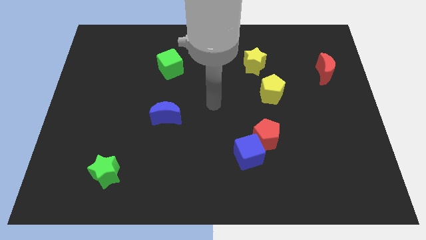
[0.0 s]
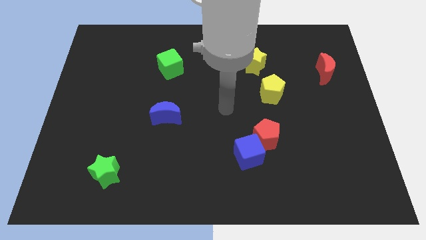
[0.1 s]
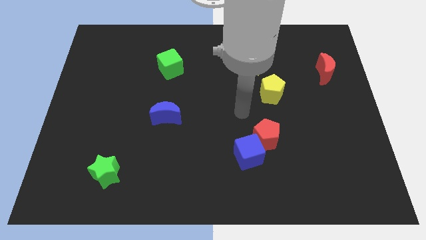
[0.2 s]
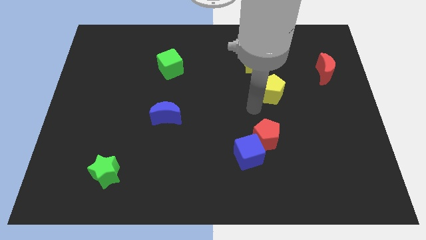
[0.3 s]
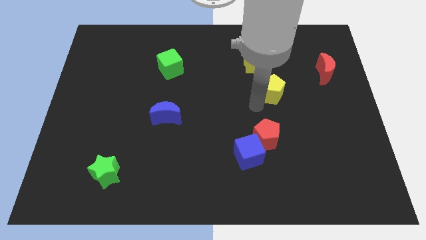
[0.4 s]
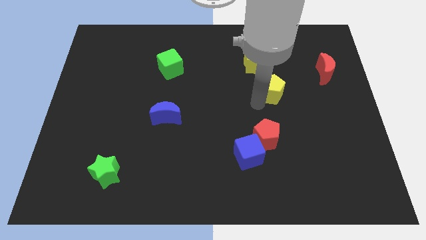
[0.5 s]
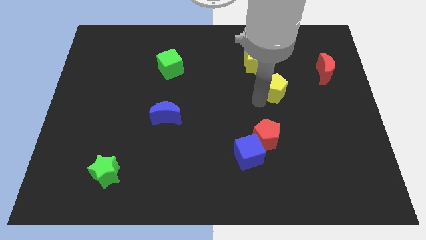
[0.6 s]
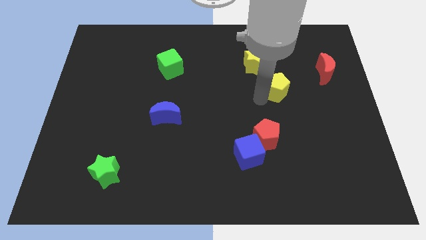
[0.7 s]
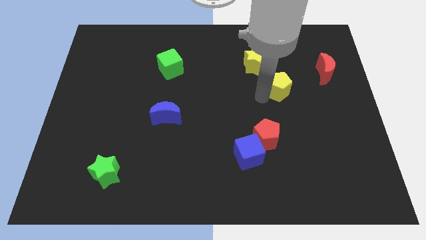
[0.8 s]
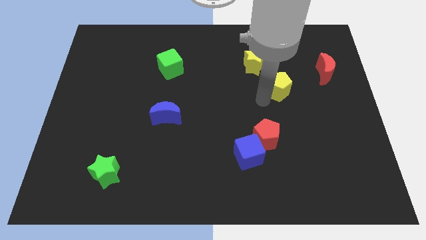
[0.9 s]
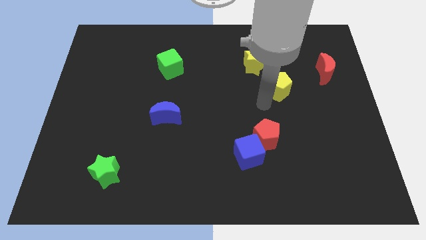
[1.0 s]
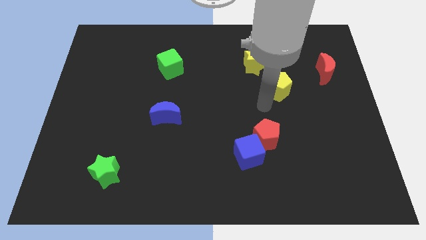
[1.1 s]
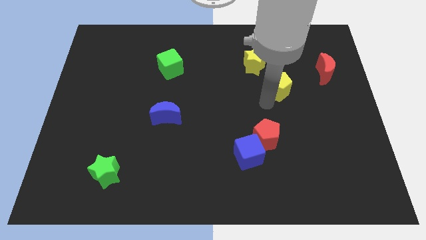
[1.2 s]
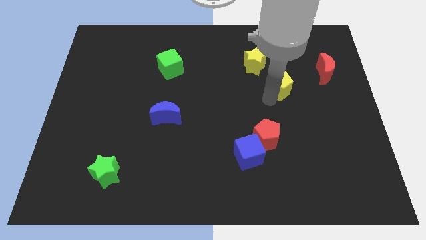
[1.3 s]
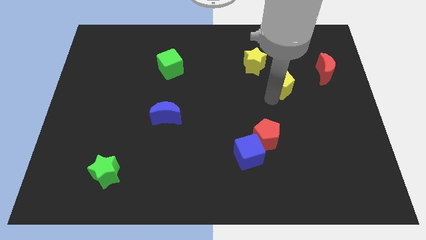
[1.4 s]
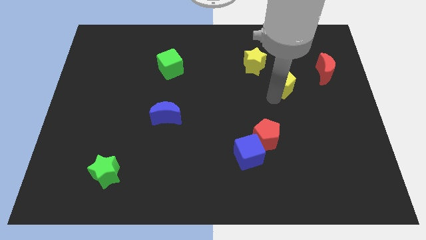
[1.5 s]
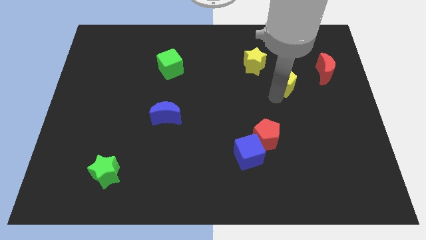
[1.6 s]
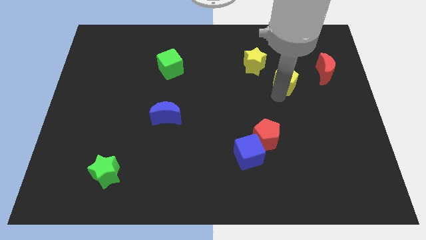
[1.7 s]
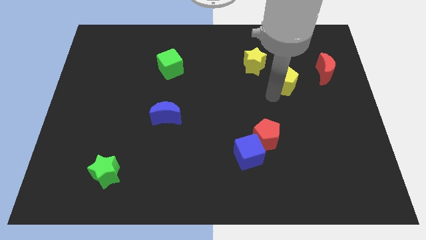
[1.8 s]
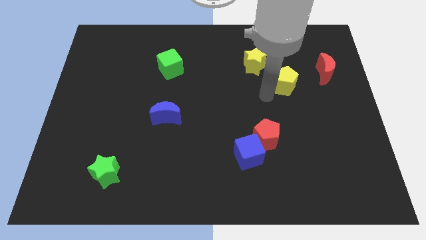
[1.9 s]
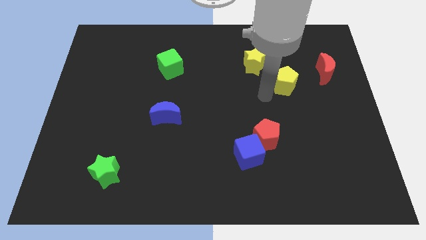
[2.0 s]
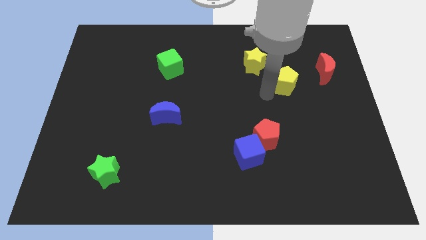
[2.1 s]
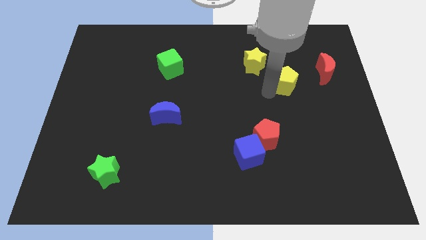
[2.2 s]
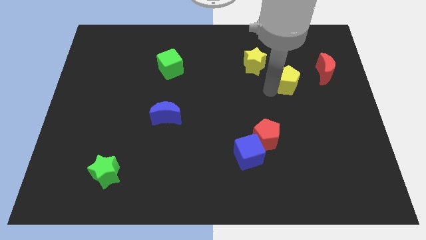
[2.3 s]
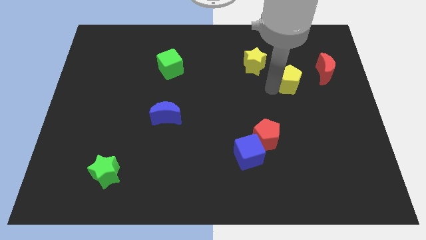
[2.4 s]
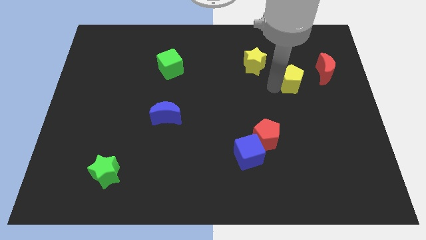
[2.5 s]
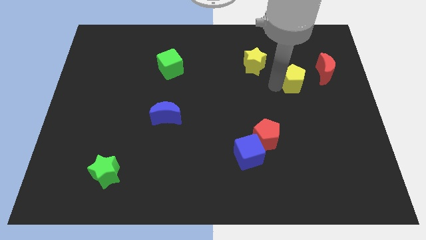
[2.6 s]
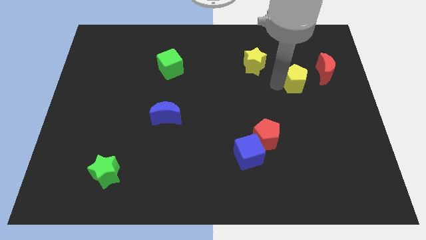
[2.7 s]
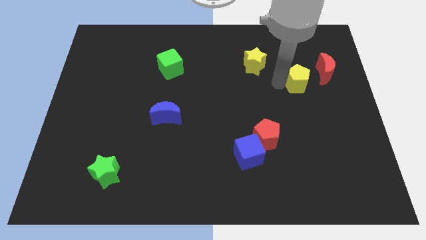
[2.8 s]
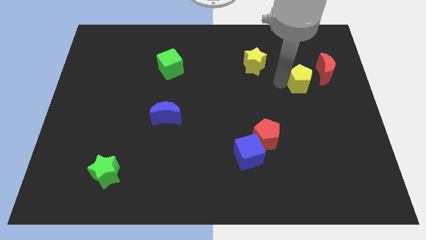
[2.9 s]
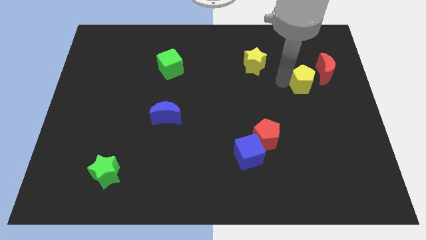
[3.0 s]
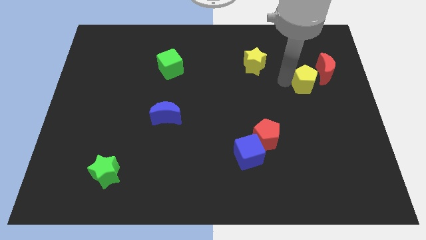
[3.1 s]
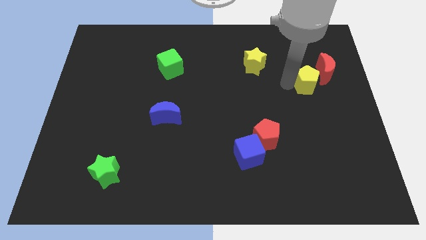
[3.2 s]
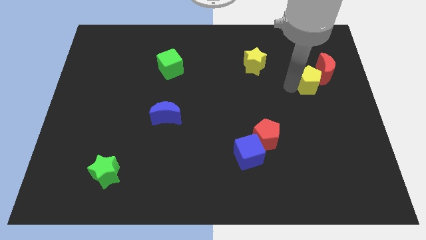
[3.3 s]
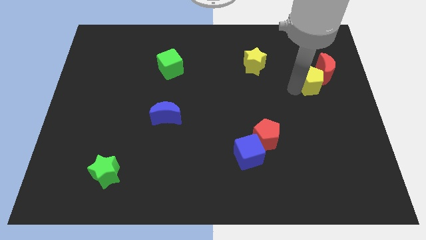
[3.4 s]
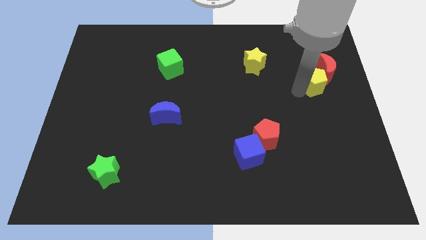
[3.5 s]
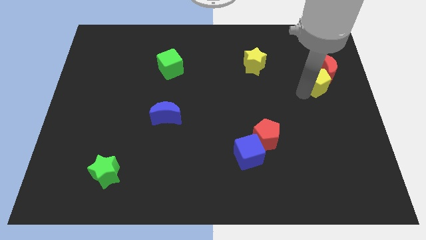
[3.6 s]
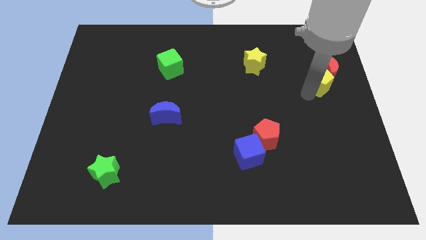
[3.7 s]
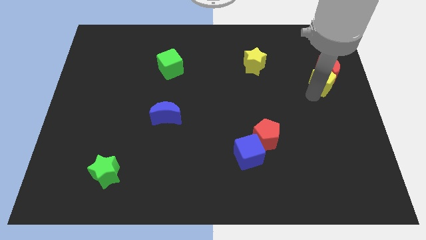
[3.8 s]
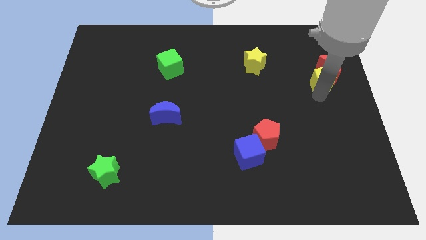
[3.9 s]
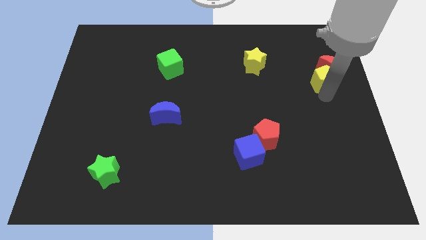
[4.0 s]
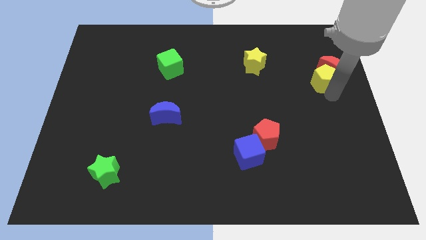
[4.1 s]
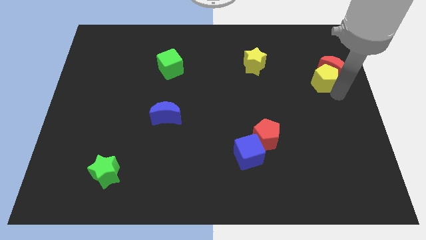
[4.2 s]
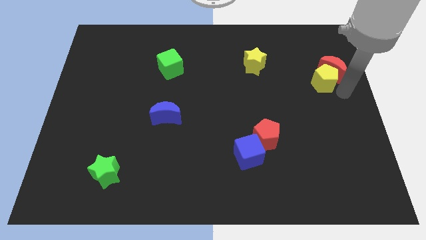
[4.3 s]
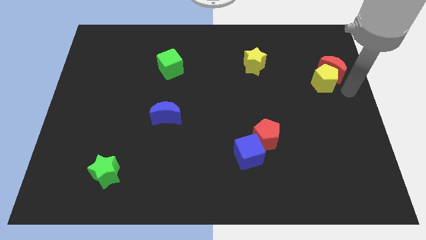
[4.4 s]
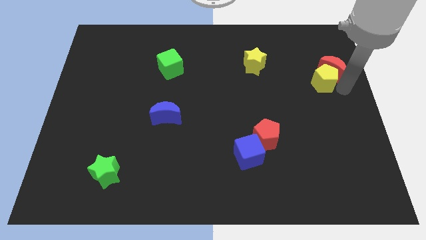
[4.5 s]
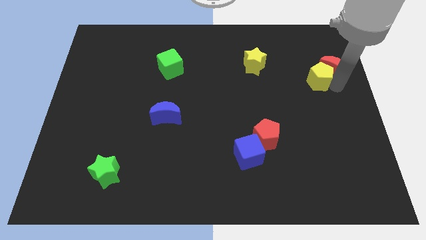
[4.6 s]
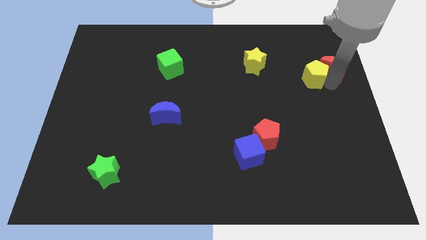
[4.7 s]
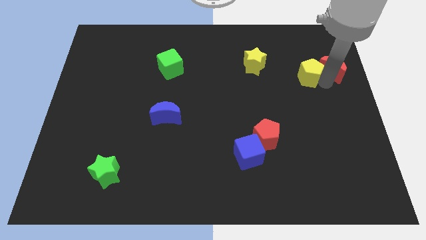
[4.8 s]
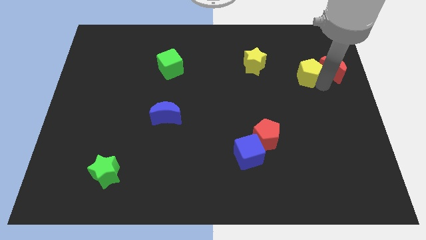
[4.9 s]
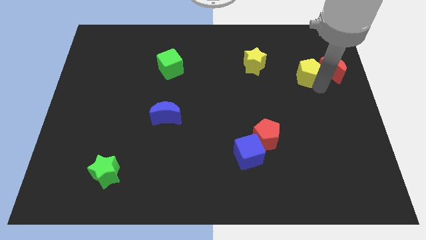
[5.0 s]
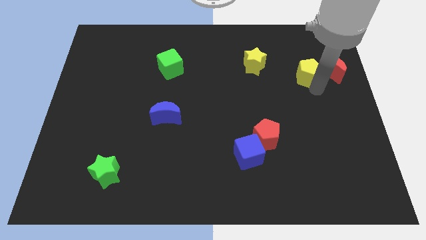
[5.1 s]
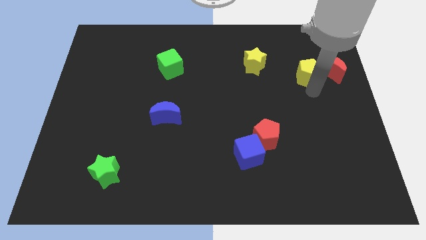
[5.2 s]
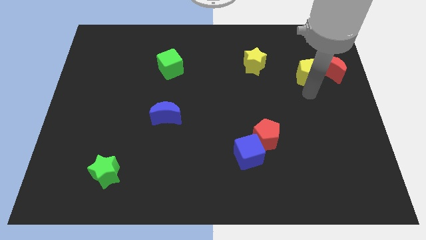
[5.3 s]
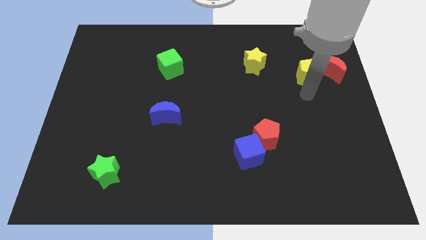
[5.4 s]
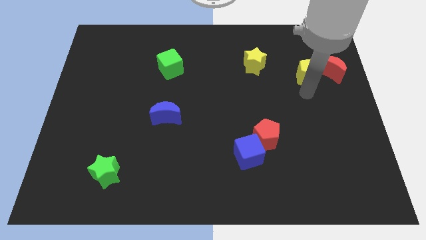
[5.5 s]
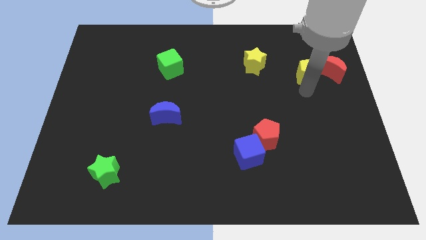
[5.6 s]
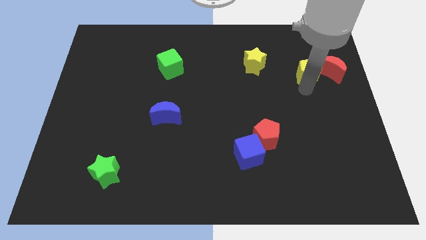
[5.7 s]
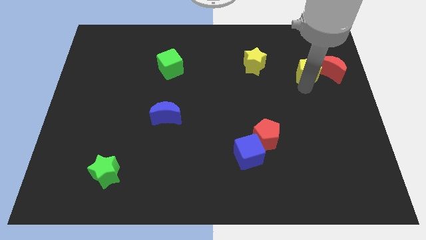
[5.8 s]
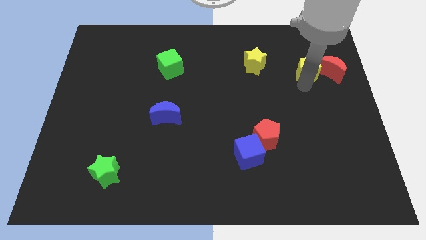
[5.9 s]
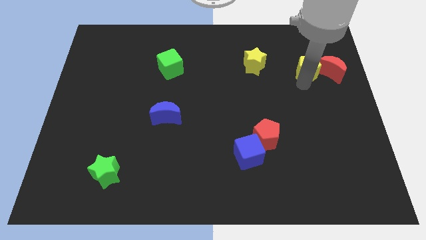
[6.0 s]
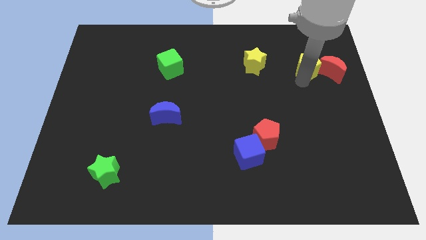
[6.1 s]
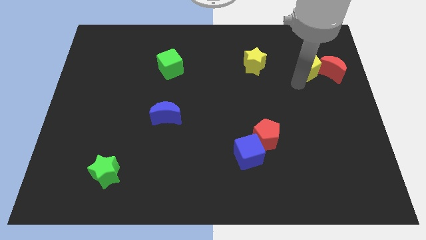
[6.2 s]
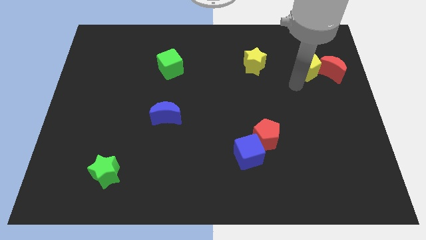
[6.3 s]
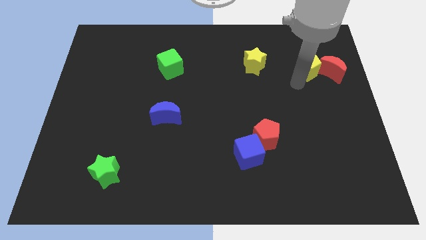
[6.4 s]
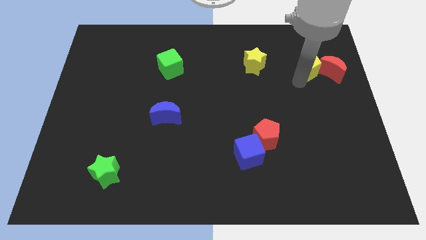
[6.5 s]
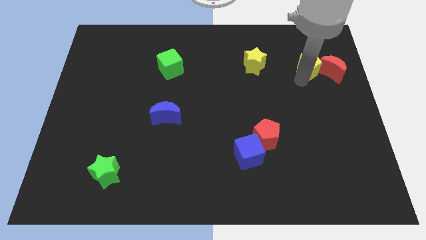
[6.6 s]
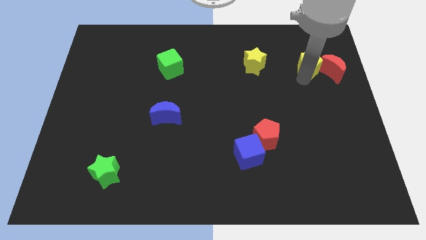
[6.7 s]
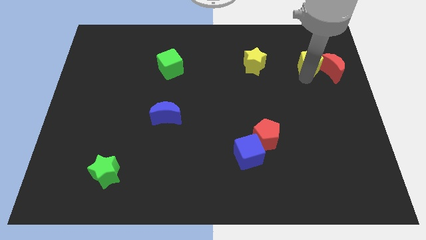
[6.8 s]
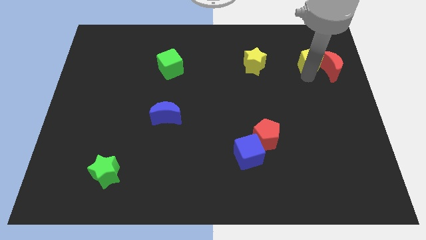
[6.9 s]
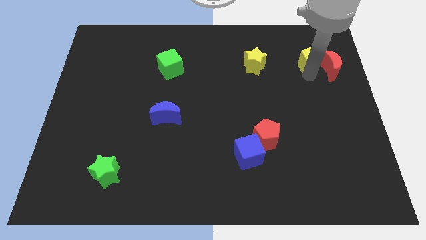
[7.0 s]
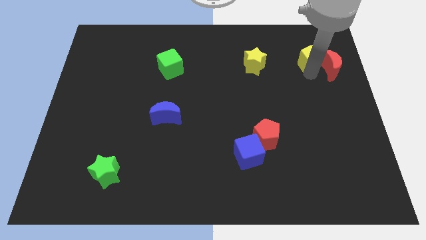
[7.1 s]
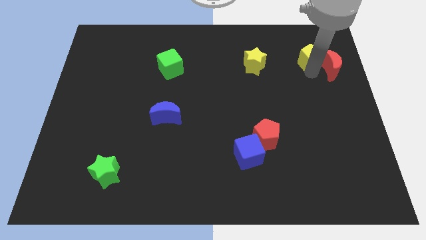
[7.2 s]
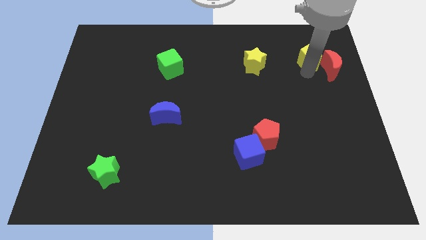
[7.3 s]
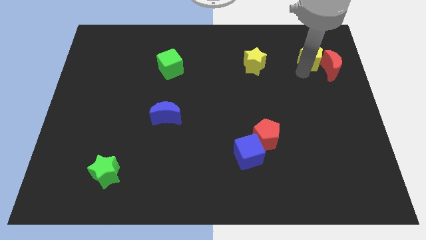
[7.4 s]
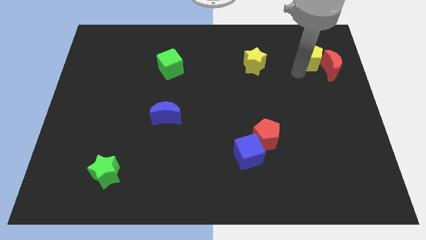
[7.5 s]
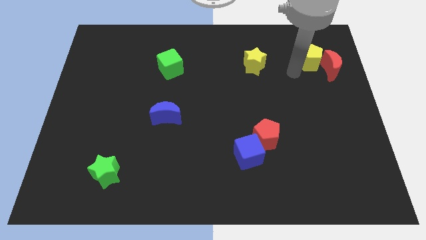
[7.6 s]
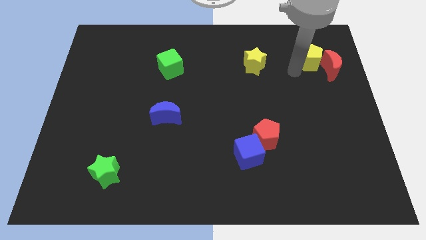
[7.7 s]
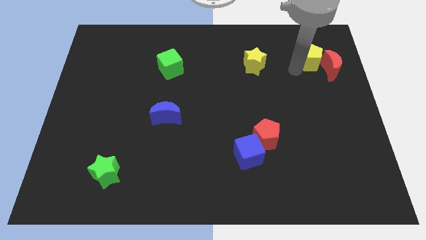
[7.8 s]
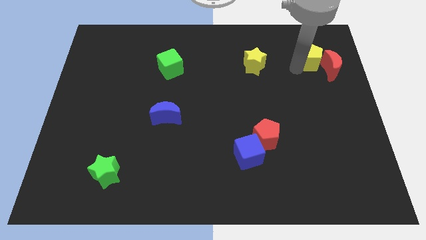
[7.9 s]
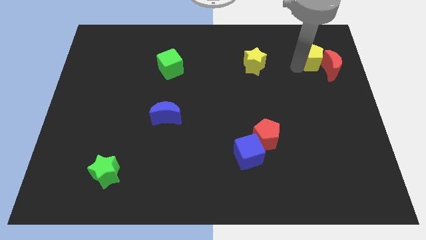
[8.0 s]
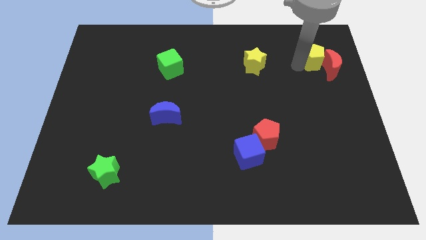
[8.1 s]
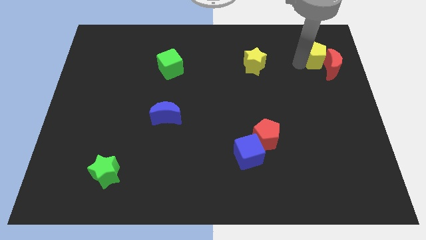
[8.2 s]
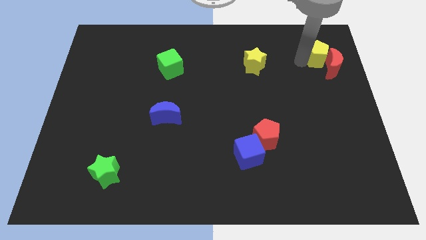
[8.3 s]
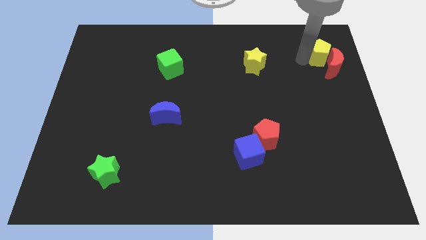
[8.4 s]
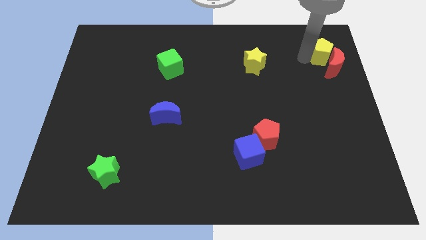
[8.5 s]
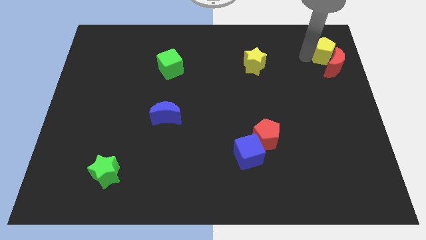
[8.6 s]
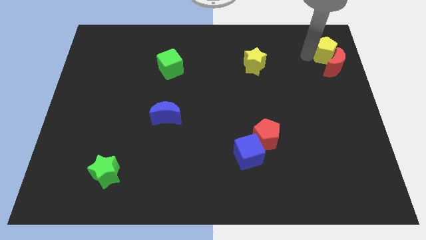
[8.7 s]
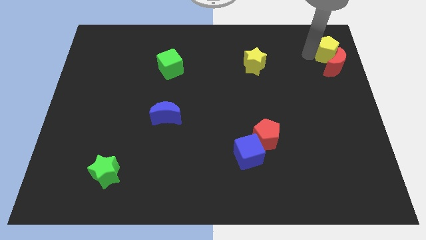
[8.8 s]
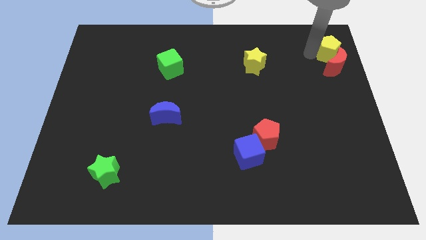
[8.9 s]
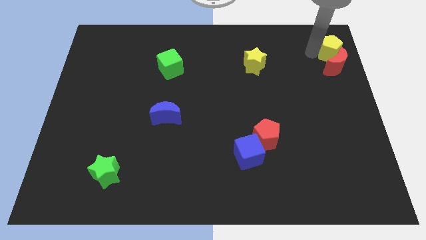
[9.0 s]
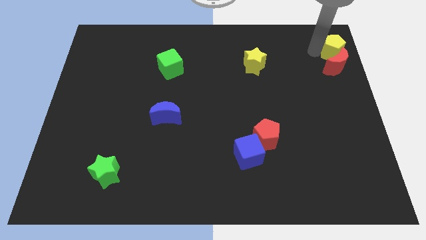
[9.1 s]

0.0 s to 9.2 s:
push the yellow pentagon to the top right
